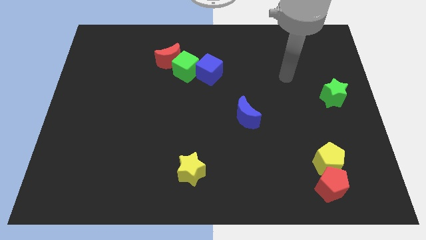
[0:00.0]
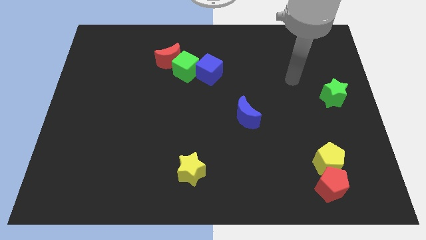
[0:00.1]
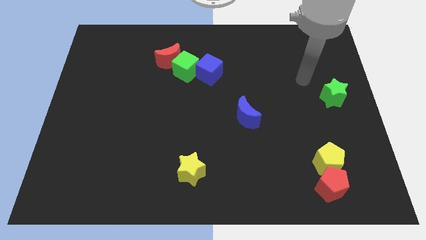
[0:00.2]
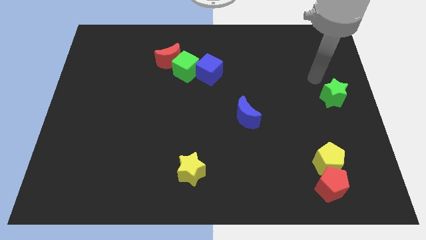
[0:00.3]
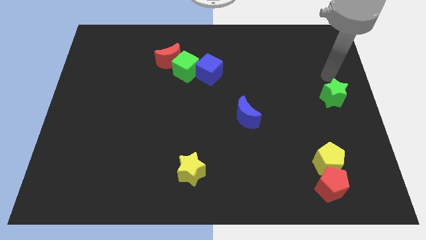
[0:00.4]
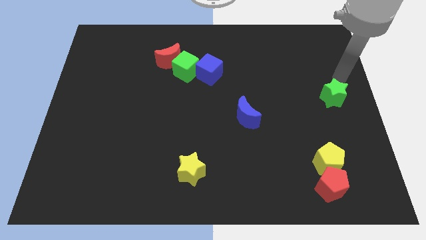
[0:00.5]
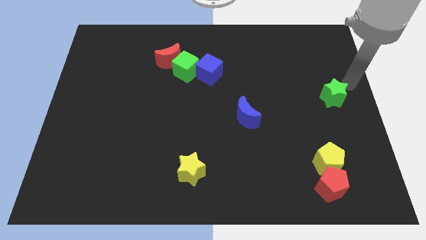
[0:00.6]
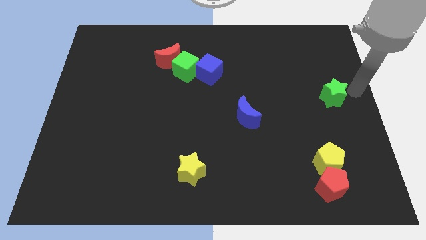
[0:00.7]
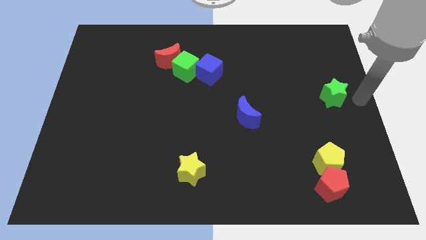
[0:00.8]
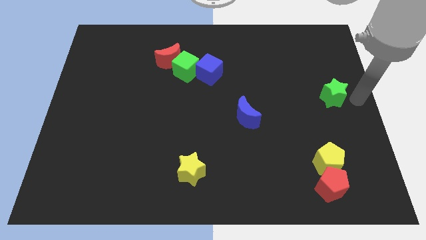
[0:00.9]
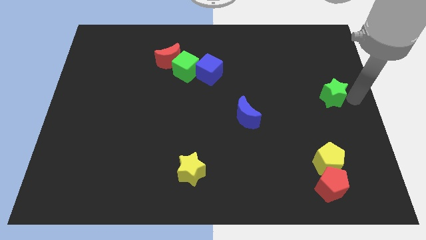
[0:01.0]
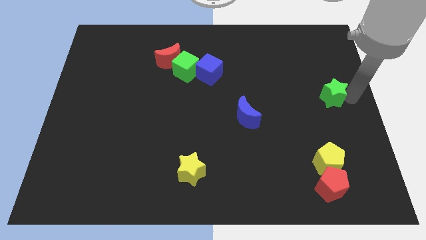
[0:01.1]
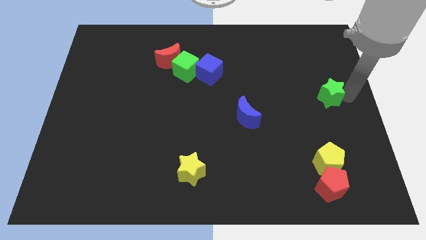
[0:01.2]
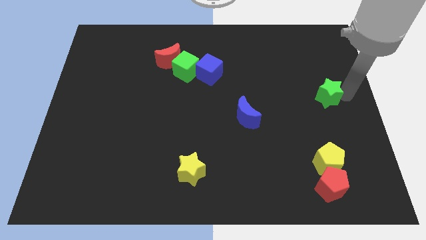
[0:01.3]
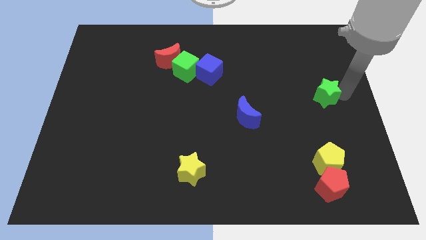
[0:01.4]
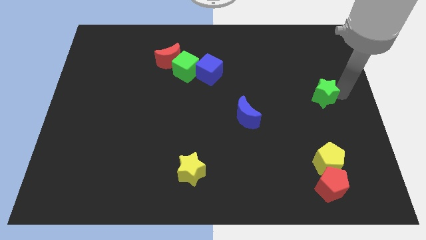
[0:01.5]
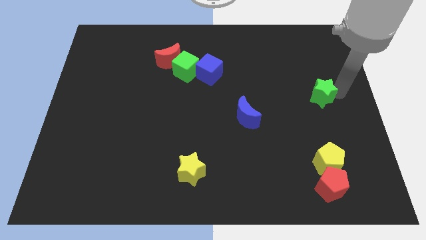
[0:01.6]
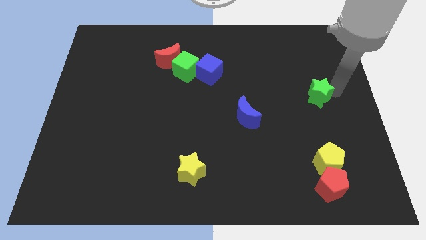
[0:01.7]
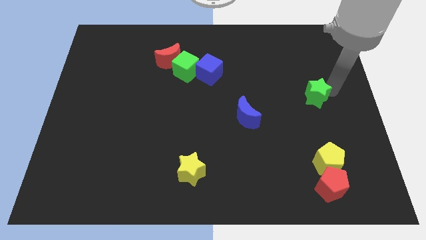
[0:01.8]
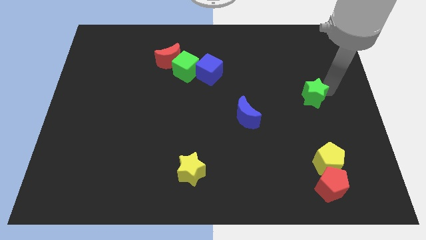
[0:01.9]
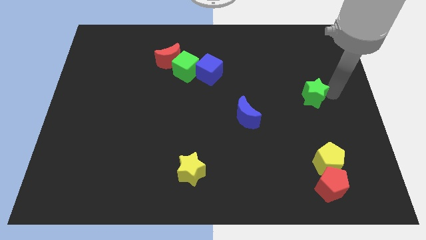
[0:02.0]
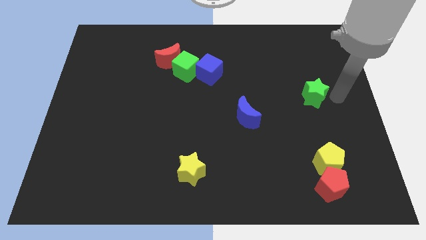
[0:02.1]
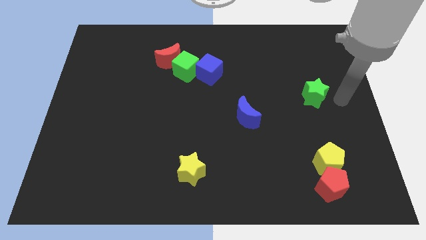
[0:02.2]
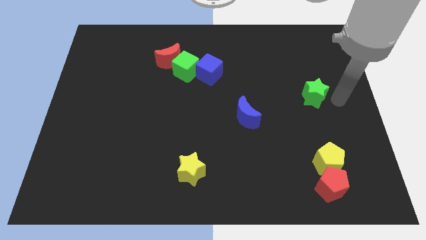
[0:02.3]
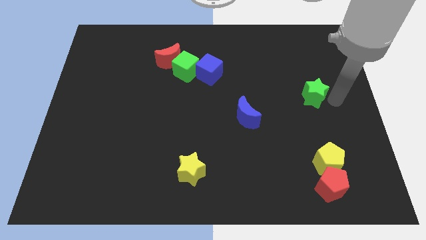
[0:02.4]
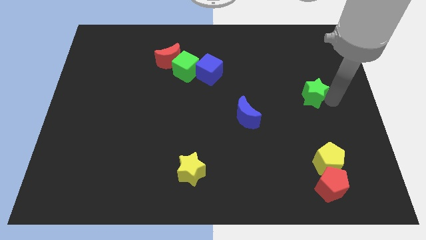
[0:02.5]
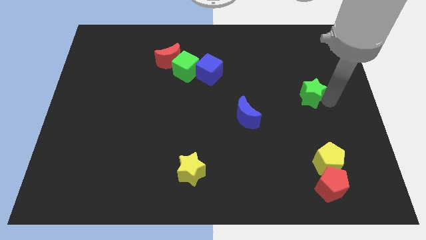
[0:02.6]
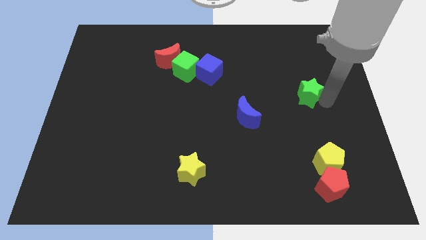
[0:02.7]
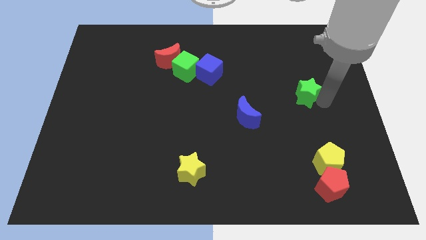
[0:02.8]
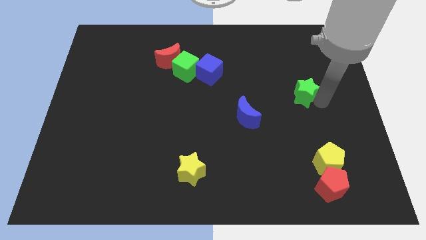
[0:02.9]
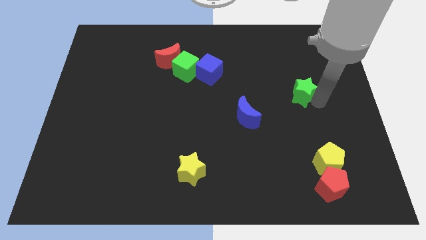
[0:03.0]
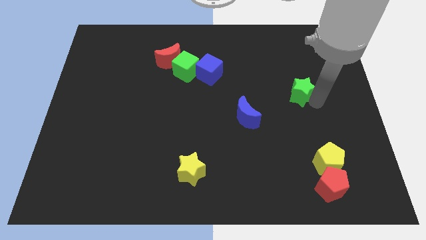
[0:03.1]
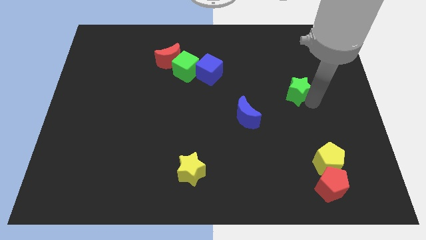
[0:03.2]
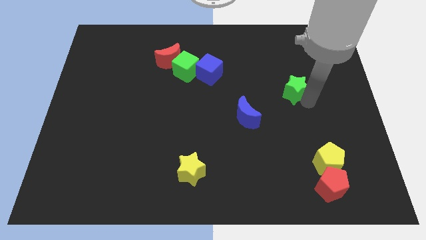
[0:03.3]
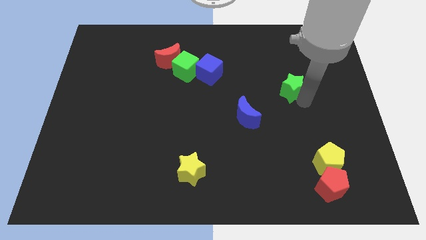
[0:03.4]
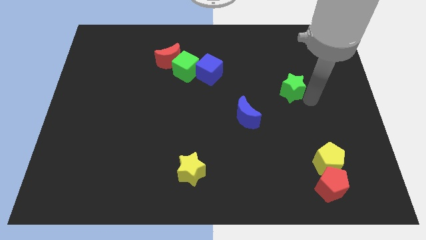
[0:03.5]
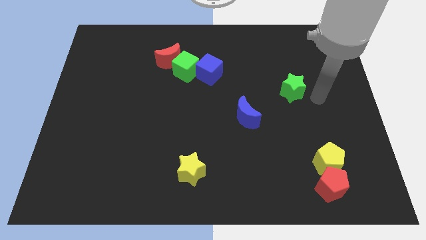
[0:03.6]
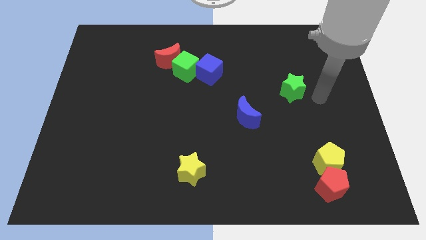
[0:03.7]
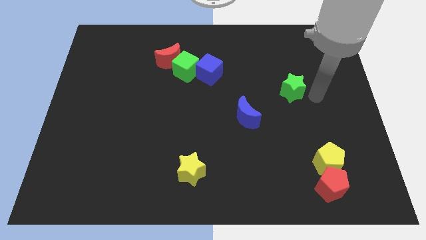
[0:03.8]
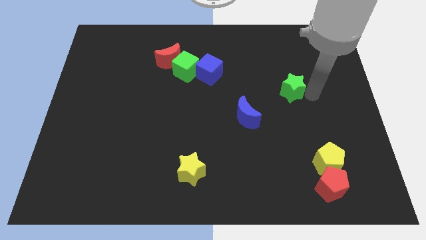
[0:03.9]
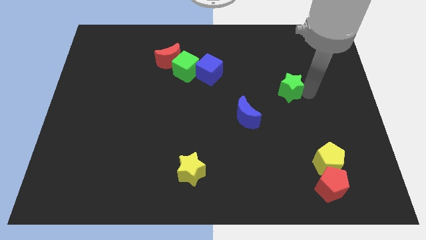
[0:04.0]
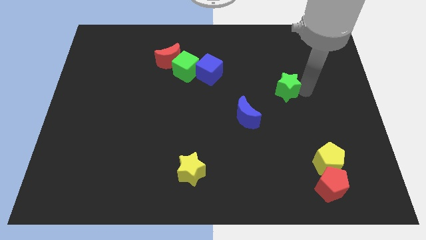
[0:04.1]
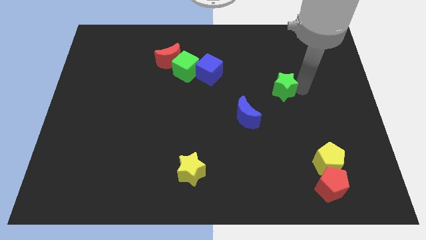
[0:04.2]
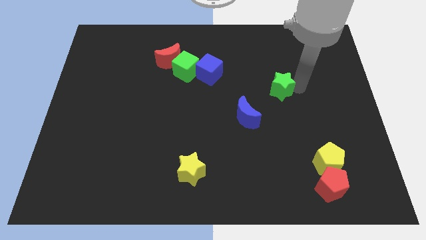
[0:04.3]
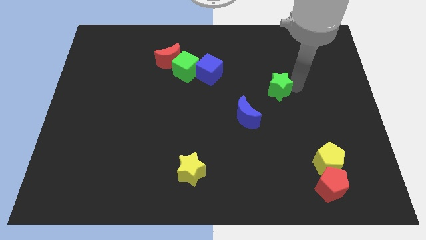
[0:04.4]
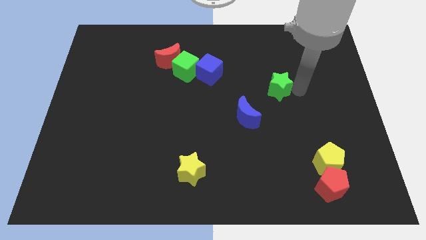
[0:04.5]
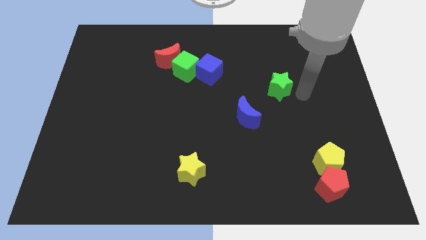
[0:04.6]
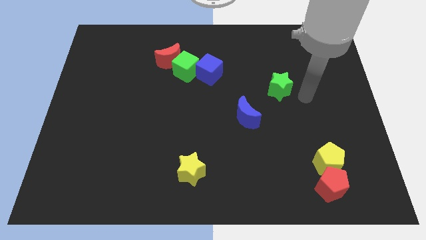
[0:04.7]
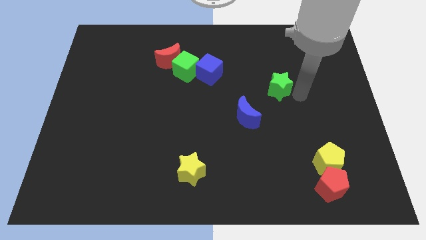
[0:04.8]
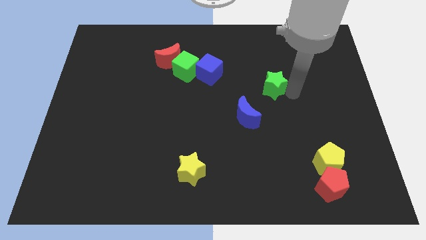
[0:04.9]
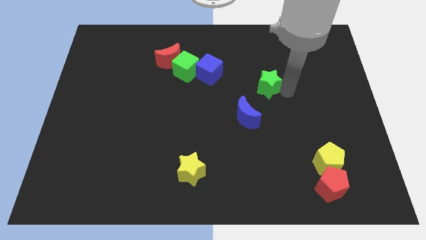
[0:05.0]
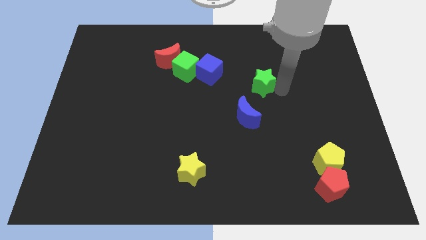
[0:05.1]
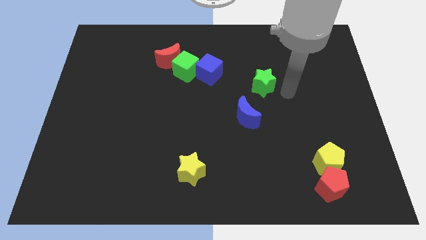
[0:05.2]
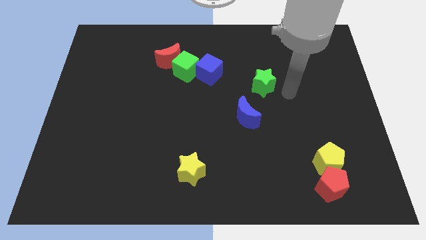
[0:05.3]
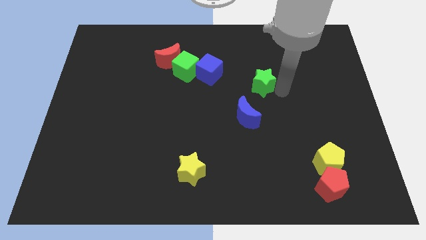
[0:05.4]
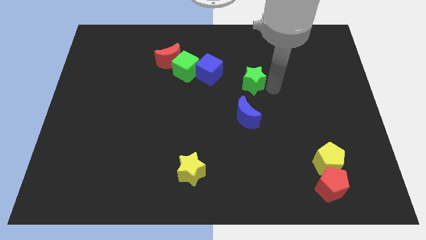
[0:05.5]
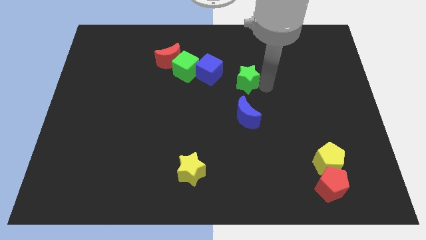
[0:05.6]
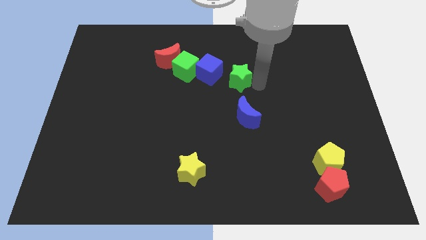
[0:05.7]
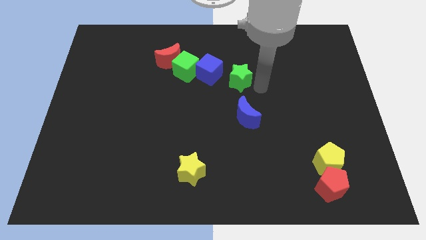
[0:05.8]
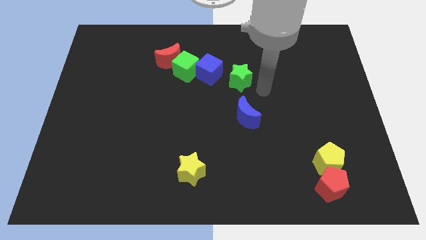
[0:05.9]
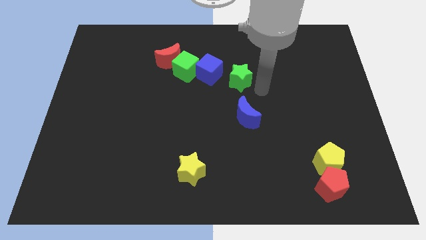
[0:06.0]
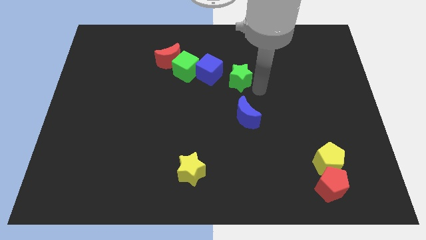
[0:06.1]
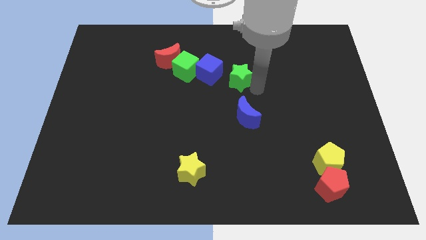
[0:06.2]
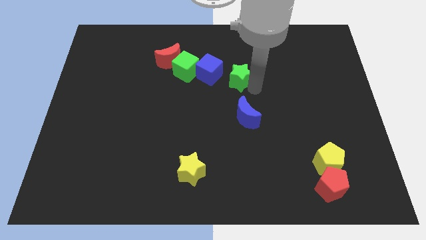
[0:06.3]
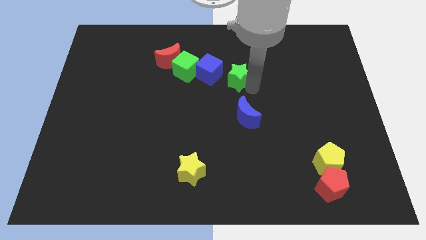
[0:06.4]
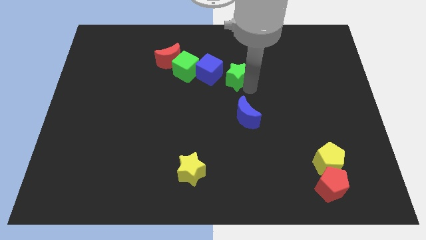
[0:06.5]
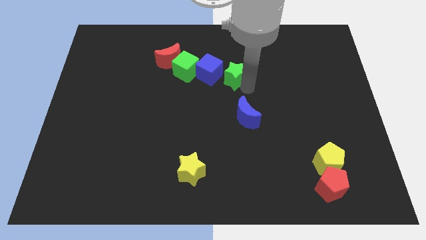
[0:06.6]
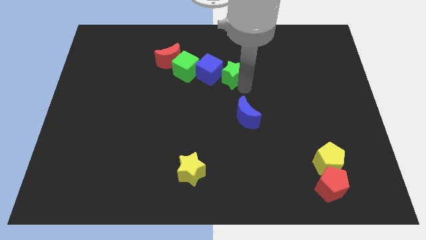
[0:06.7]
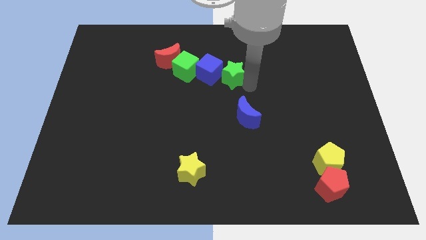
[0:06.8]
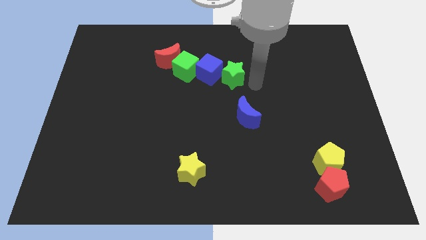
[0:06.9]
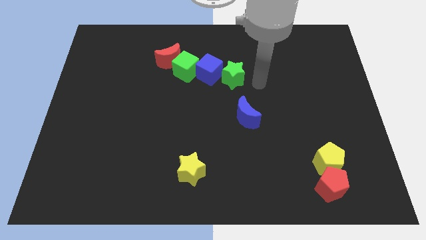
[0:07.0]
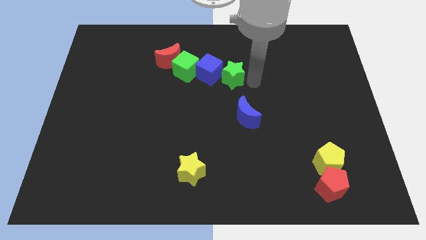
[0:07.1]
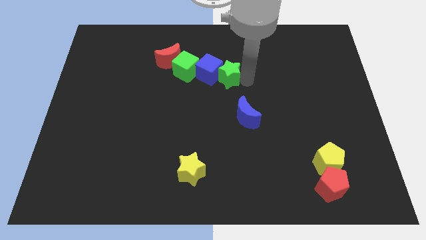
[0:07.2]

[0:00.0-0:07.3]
push the green star towards the blue cube

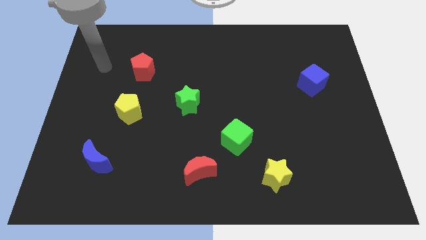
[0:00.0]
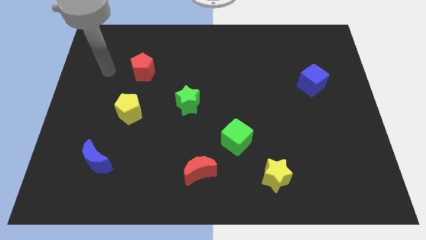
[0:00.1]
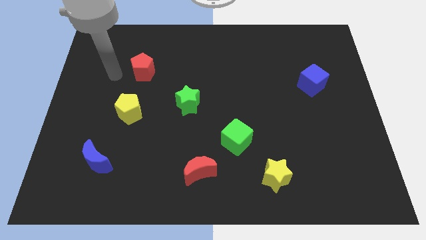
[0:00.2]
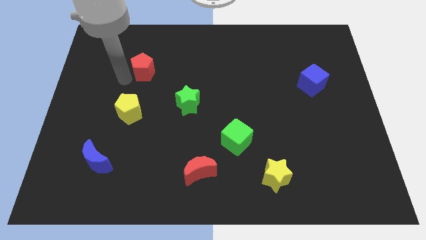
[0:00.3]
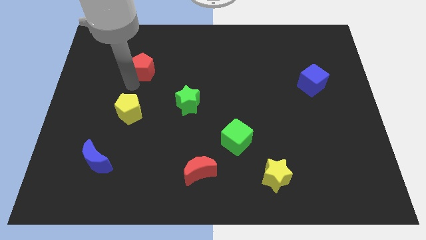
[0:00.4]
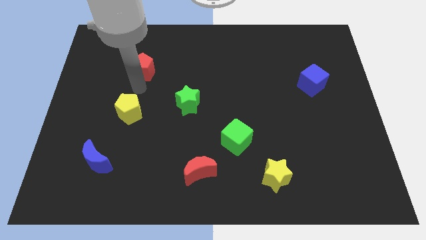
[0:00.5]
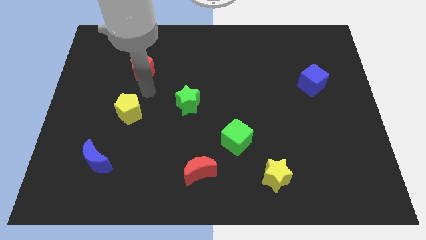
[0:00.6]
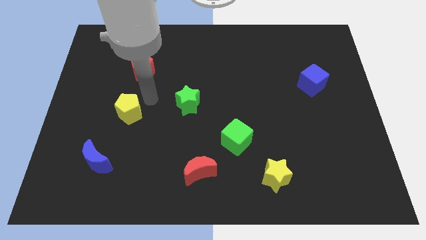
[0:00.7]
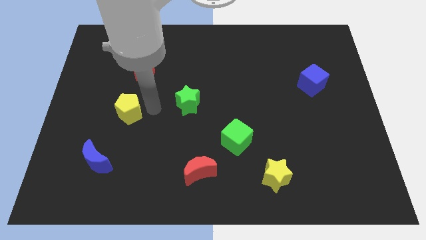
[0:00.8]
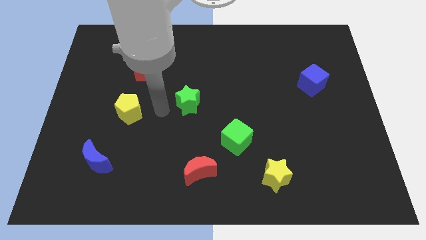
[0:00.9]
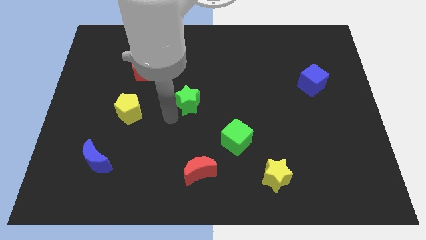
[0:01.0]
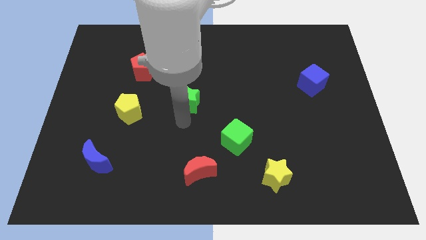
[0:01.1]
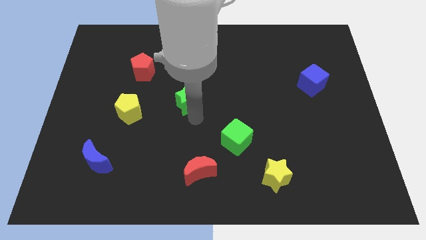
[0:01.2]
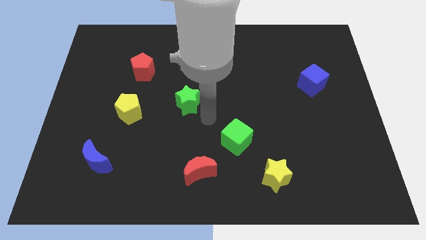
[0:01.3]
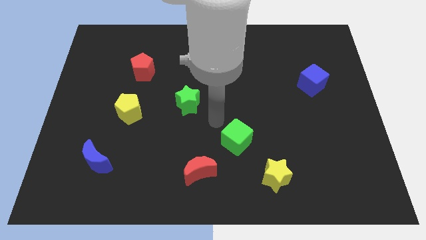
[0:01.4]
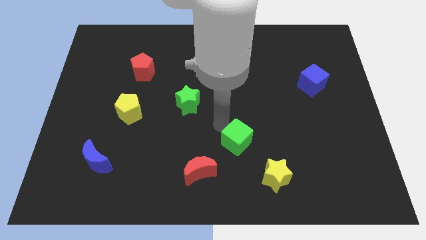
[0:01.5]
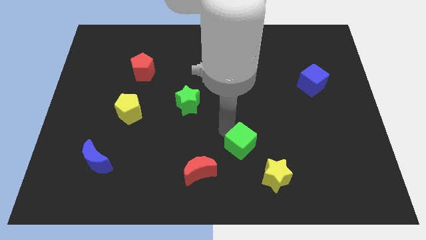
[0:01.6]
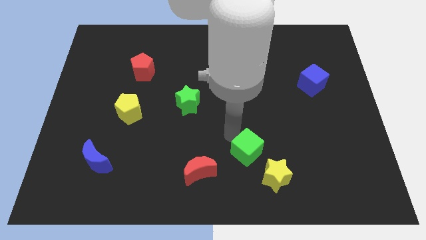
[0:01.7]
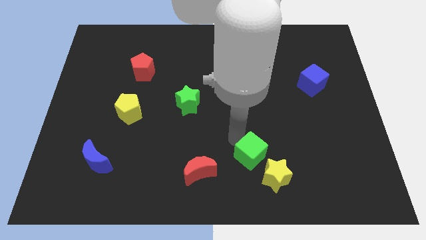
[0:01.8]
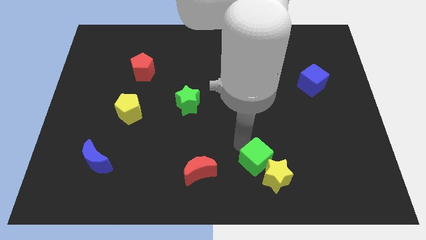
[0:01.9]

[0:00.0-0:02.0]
slide the green cube towards the yellow star
